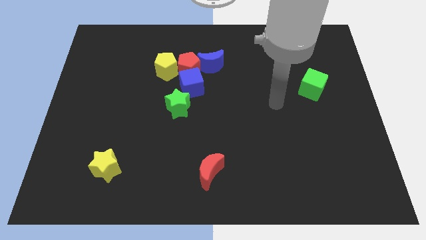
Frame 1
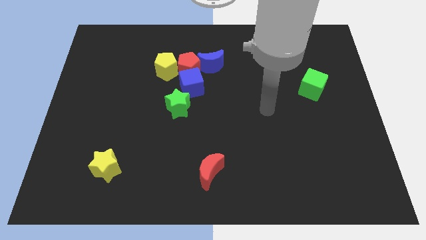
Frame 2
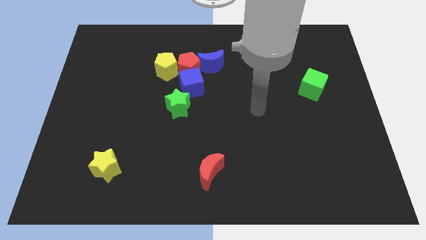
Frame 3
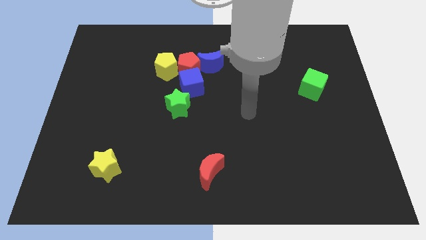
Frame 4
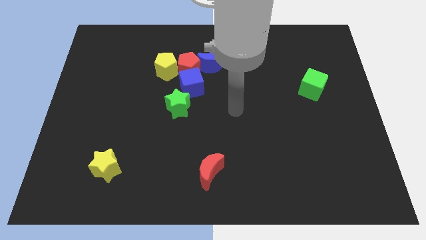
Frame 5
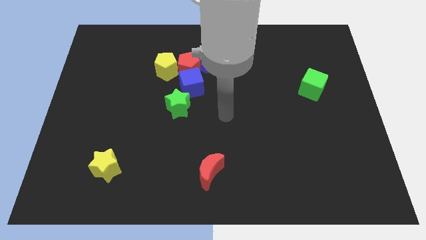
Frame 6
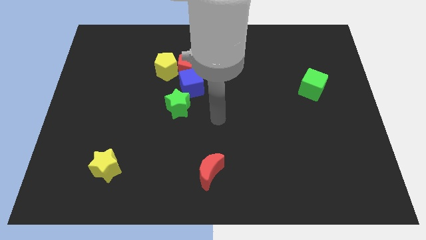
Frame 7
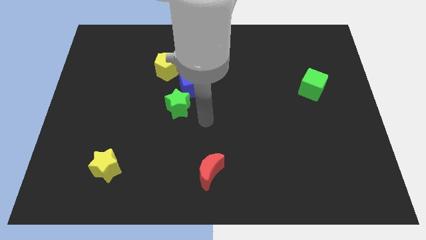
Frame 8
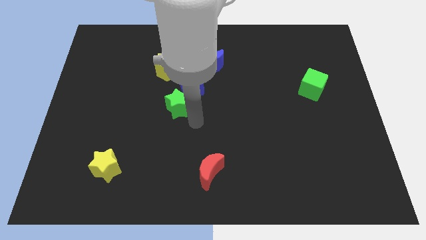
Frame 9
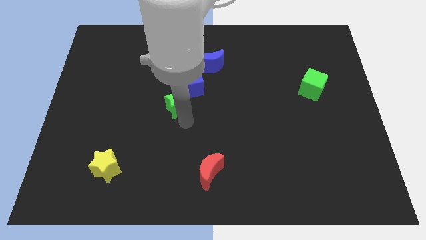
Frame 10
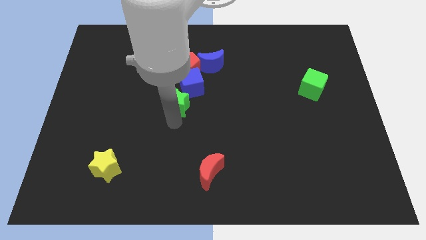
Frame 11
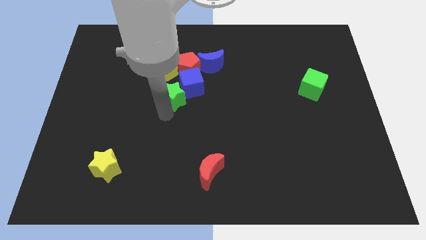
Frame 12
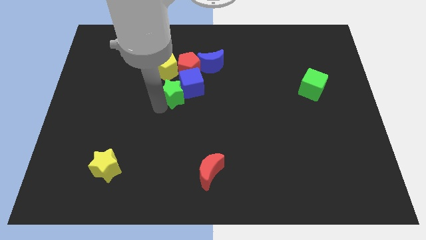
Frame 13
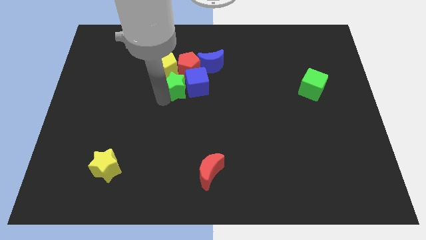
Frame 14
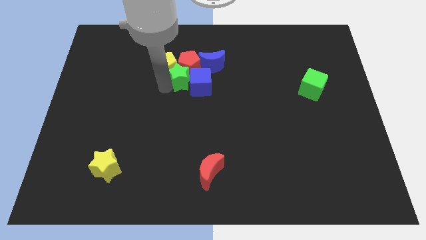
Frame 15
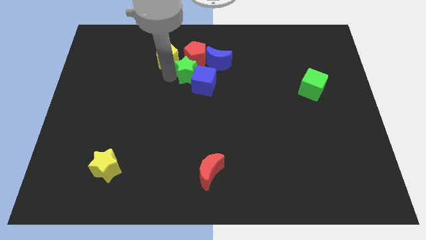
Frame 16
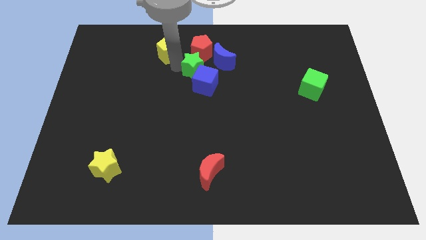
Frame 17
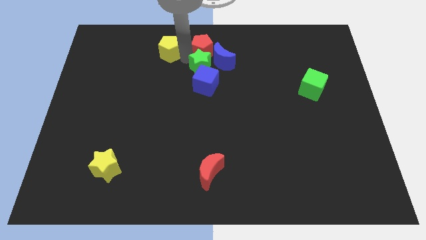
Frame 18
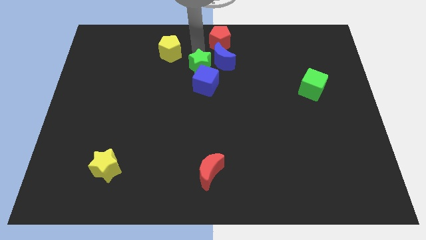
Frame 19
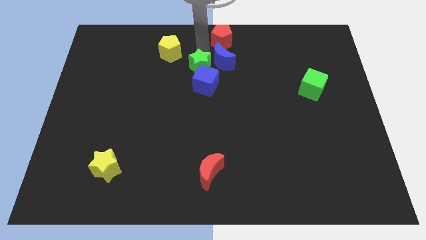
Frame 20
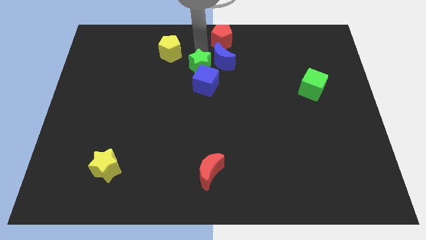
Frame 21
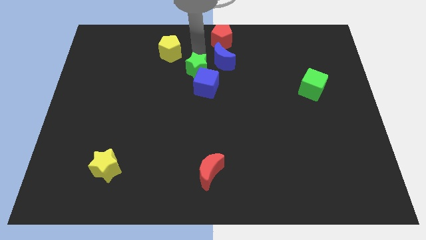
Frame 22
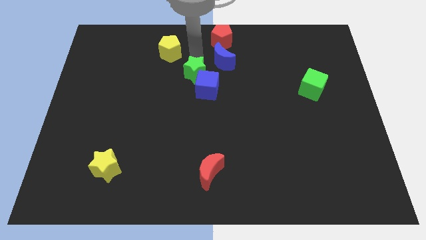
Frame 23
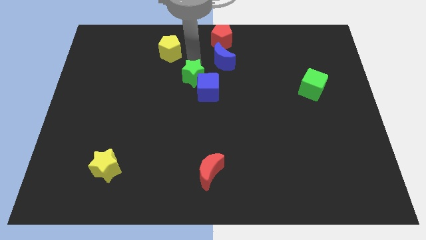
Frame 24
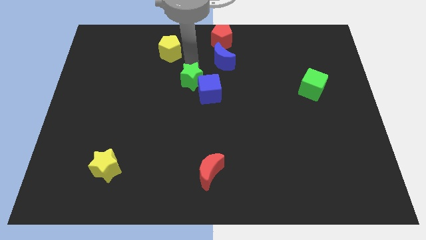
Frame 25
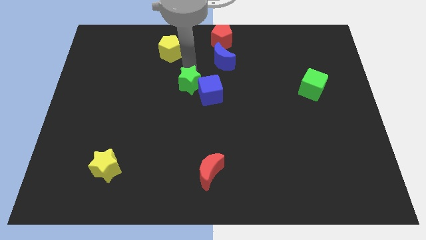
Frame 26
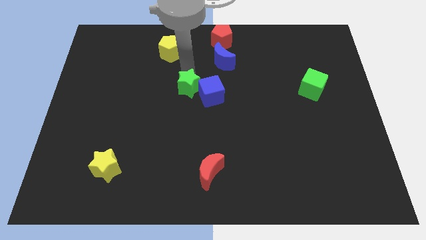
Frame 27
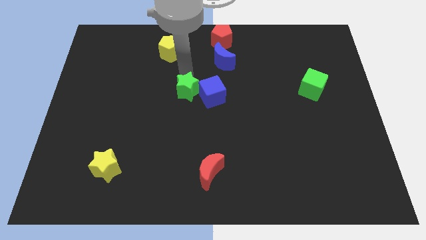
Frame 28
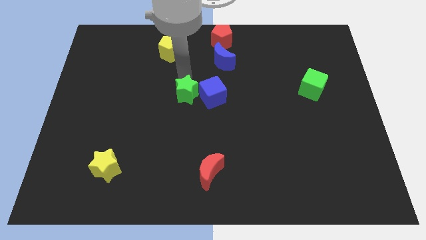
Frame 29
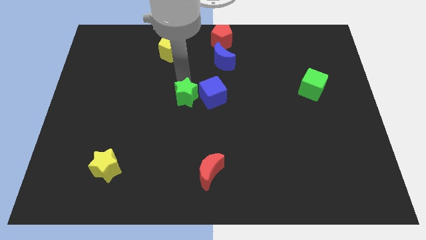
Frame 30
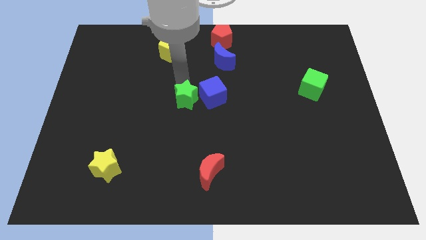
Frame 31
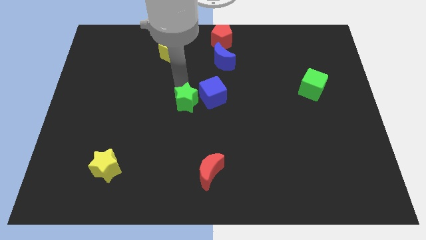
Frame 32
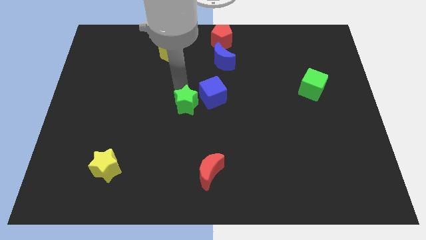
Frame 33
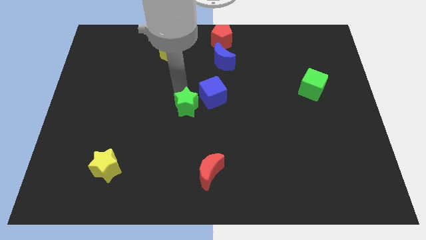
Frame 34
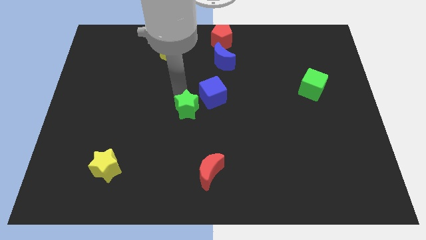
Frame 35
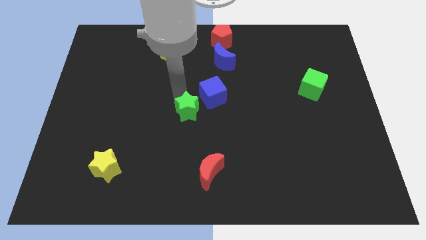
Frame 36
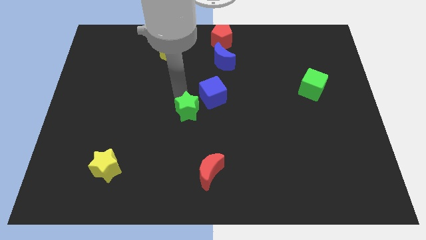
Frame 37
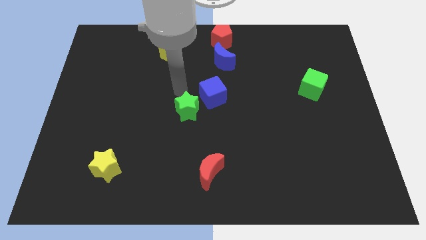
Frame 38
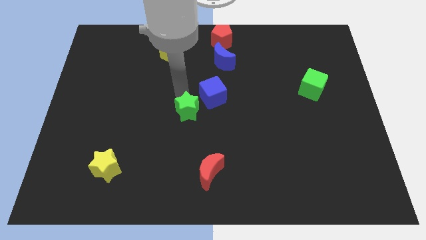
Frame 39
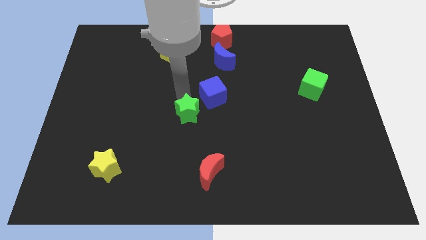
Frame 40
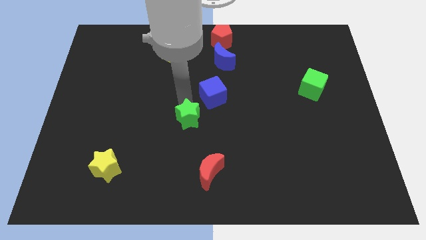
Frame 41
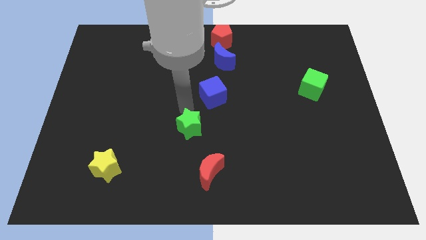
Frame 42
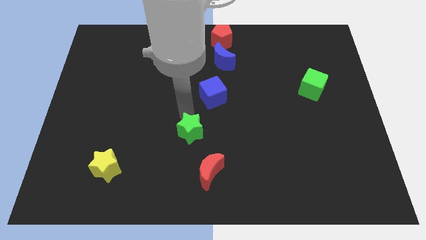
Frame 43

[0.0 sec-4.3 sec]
slightly slide the green star downwards and right

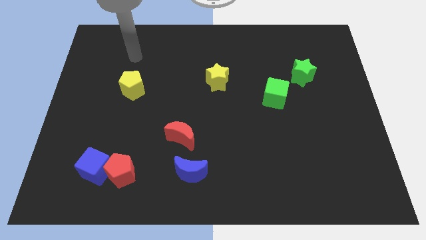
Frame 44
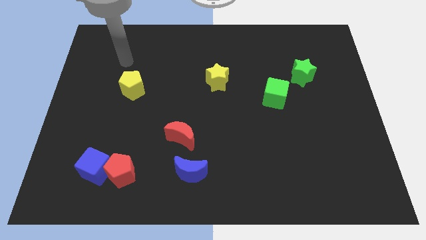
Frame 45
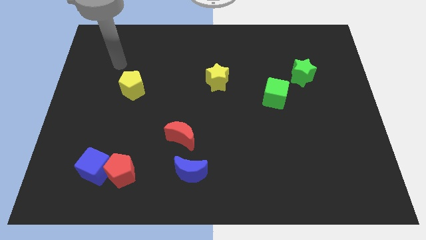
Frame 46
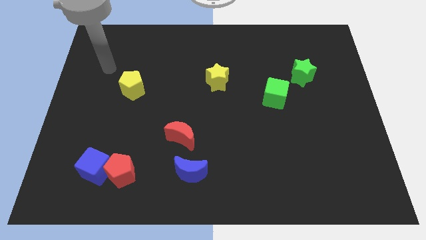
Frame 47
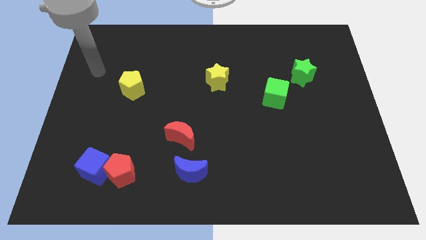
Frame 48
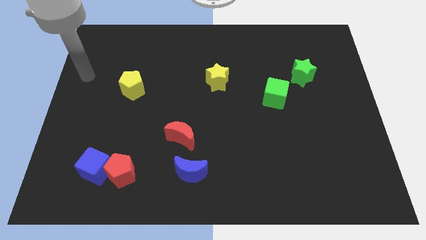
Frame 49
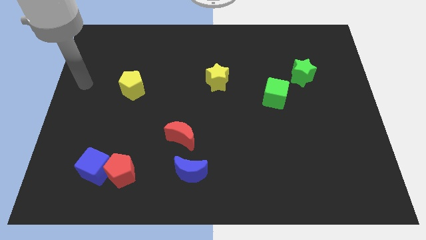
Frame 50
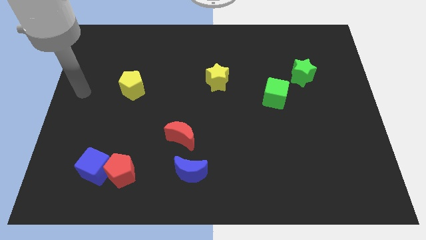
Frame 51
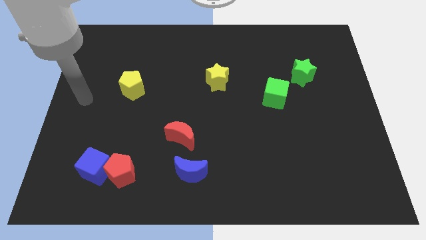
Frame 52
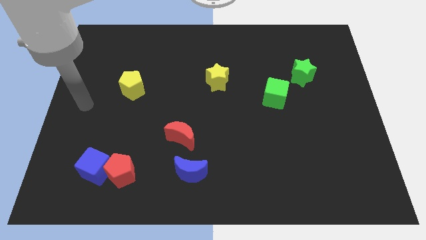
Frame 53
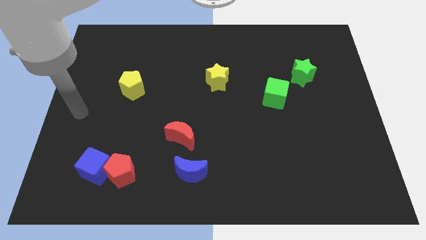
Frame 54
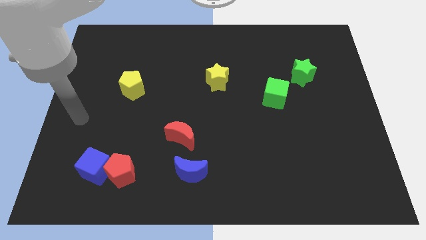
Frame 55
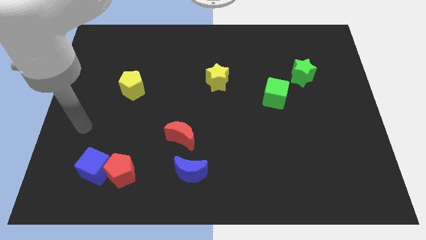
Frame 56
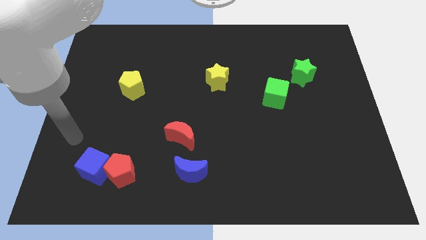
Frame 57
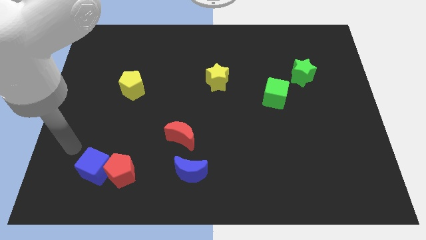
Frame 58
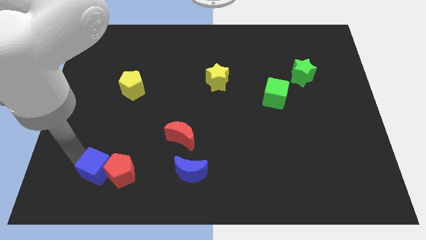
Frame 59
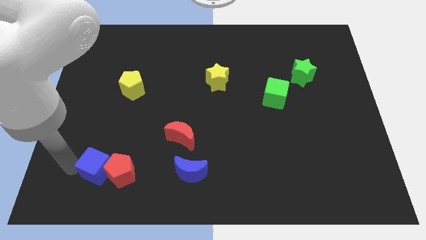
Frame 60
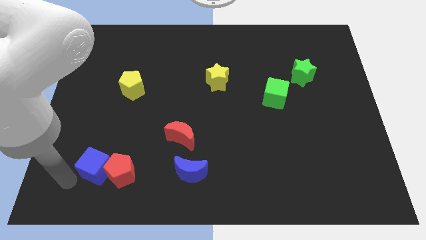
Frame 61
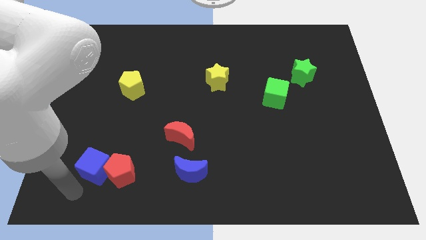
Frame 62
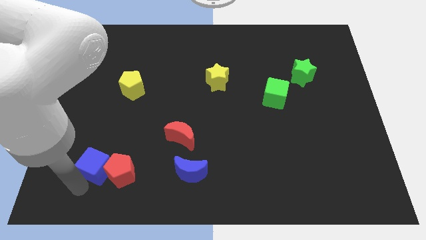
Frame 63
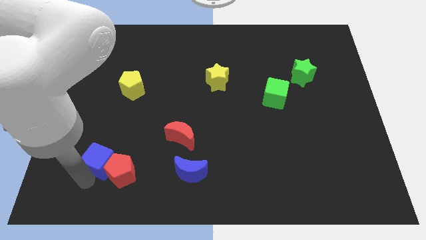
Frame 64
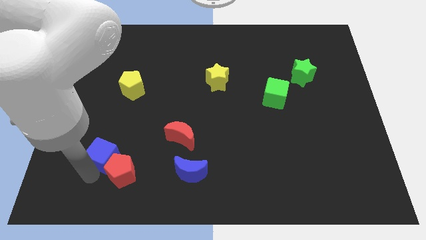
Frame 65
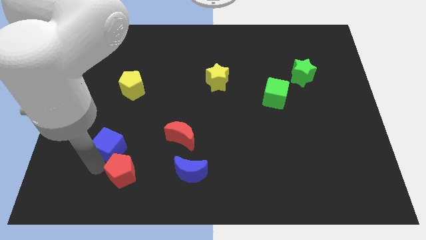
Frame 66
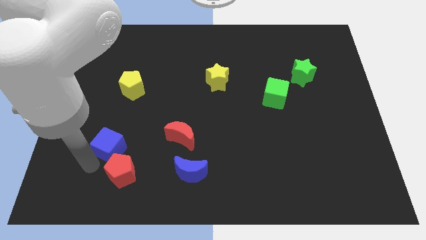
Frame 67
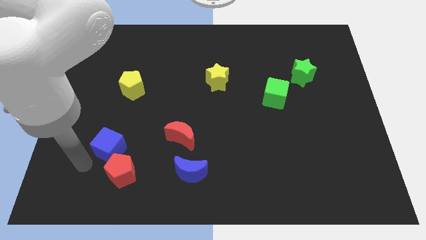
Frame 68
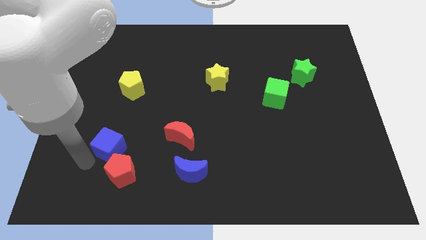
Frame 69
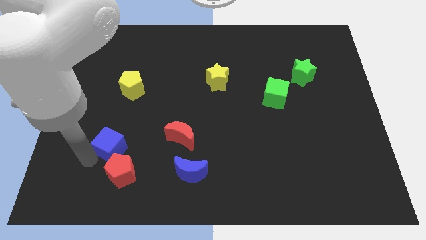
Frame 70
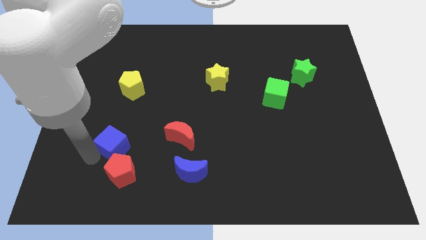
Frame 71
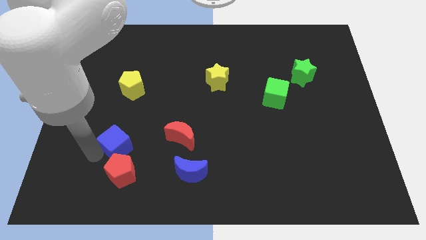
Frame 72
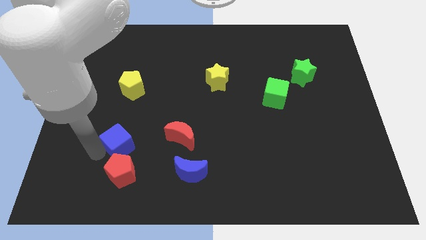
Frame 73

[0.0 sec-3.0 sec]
slide the blue cube diagonally upwards and right a bit

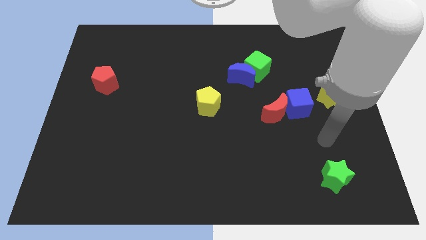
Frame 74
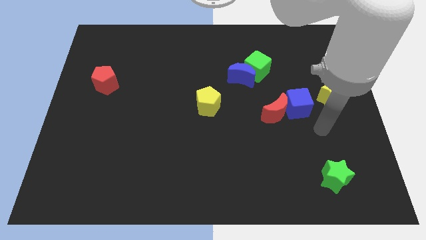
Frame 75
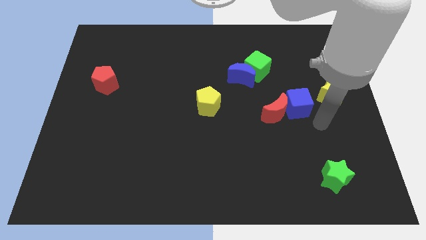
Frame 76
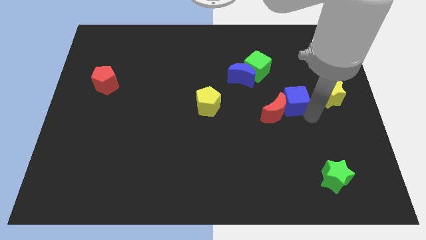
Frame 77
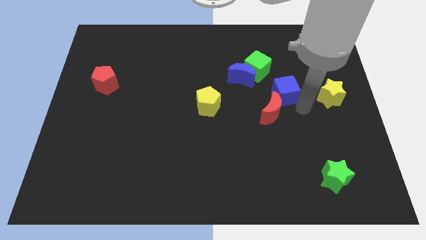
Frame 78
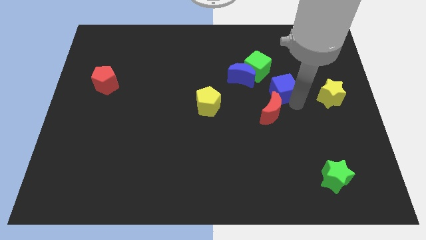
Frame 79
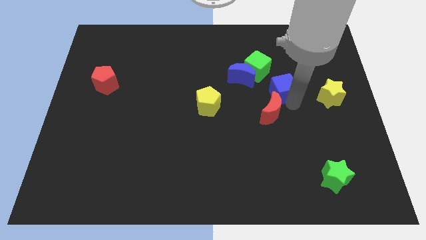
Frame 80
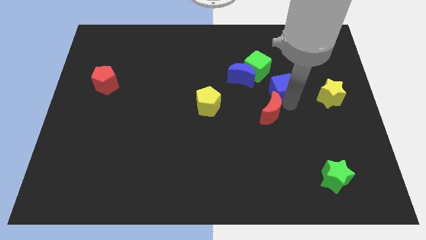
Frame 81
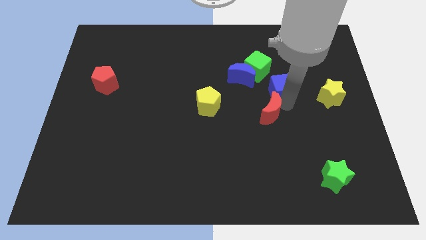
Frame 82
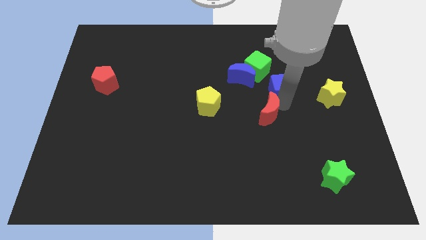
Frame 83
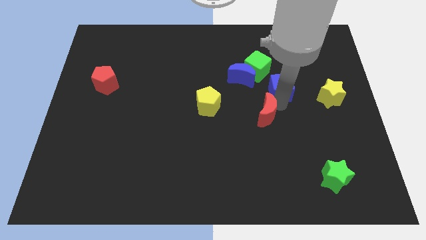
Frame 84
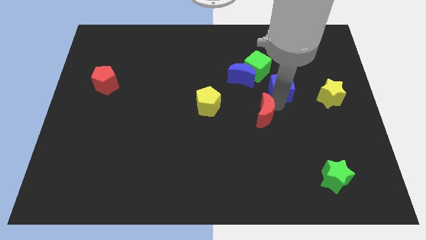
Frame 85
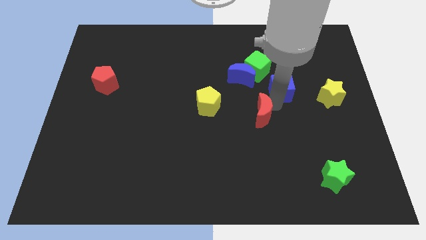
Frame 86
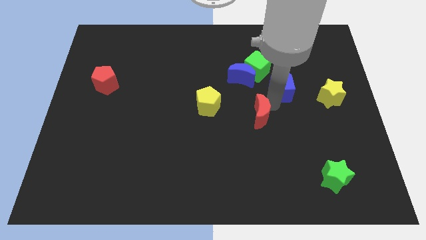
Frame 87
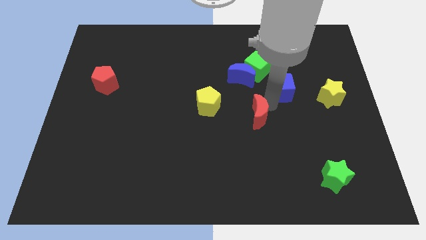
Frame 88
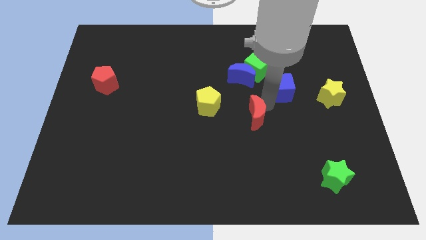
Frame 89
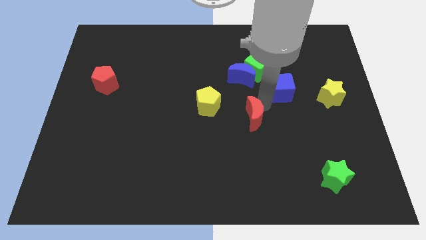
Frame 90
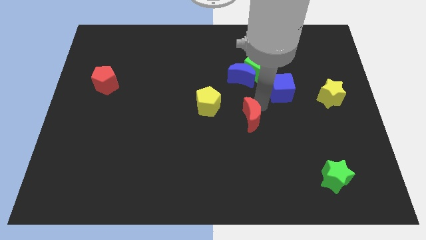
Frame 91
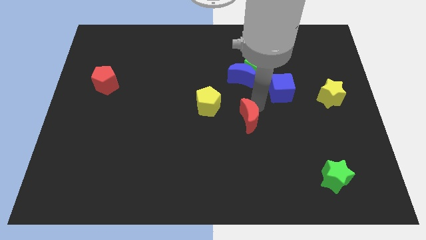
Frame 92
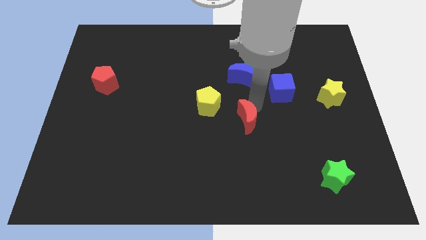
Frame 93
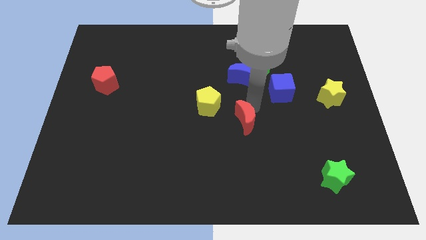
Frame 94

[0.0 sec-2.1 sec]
push the red moon a little to the left
